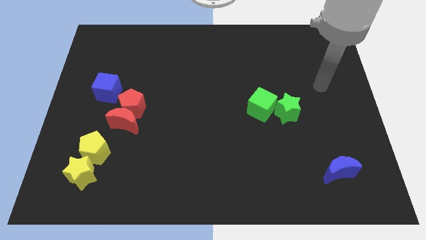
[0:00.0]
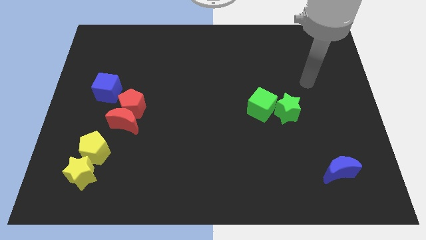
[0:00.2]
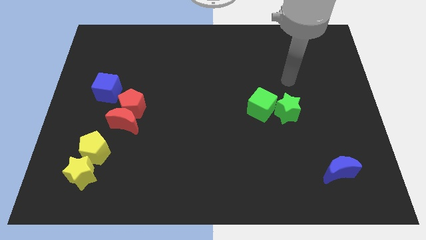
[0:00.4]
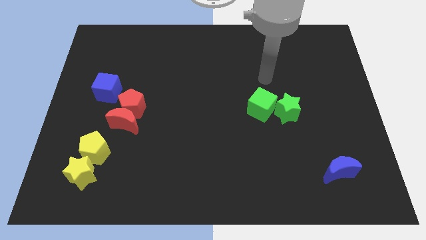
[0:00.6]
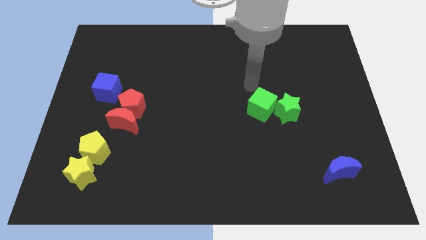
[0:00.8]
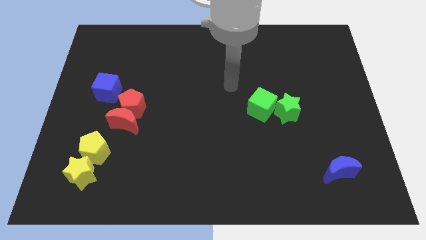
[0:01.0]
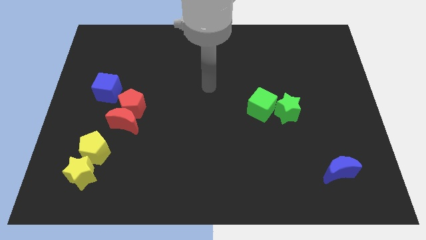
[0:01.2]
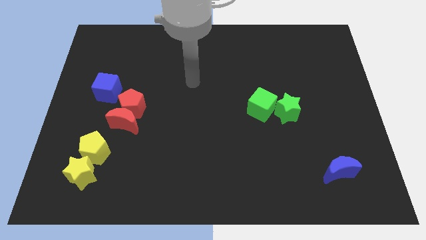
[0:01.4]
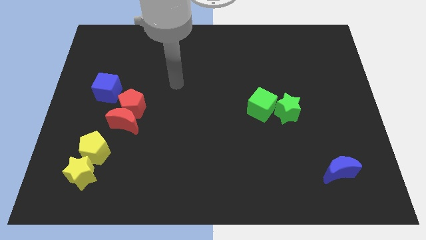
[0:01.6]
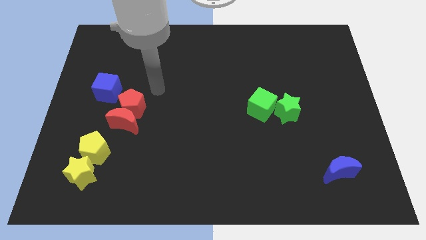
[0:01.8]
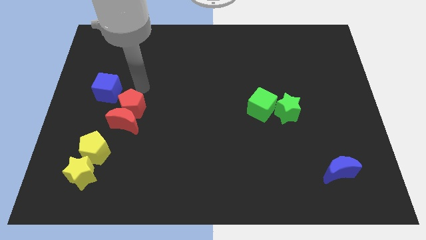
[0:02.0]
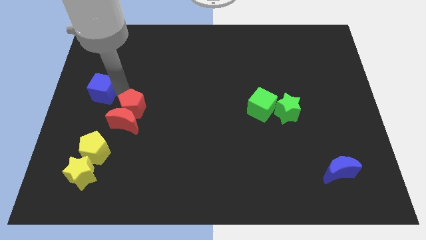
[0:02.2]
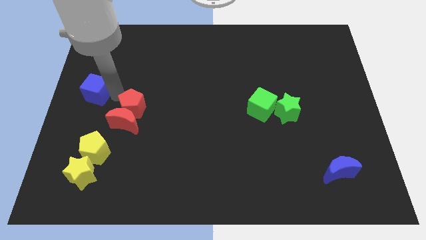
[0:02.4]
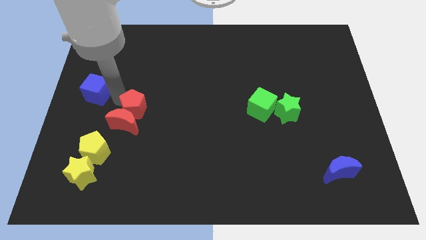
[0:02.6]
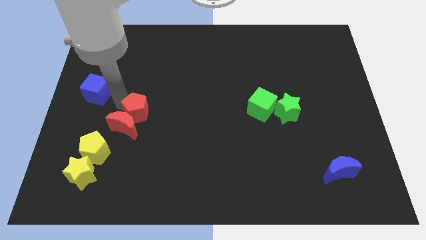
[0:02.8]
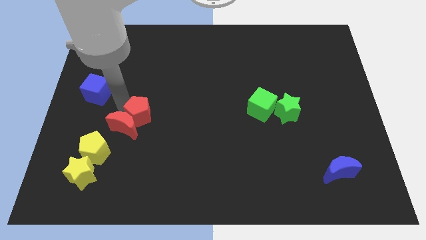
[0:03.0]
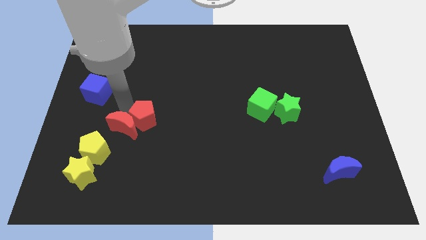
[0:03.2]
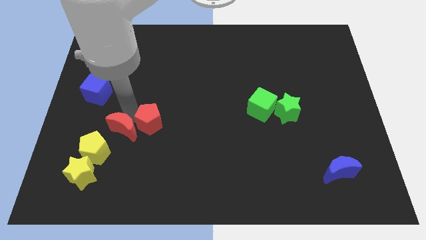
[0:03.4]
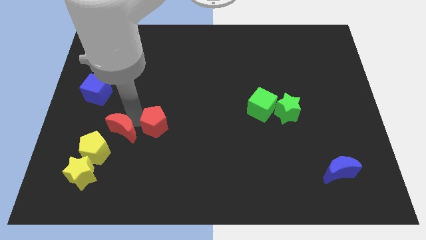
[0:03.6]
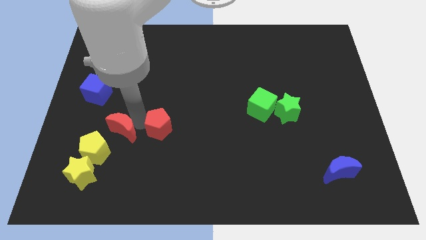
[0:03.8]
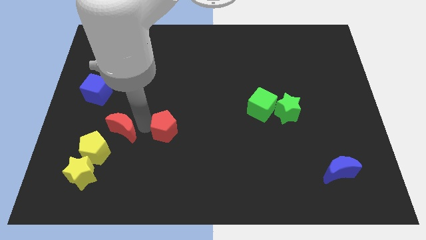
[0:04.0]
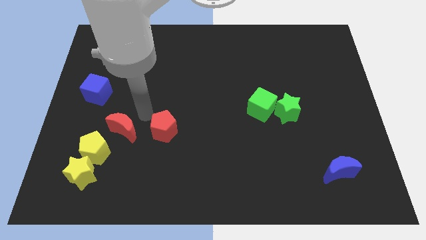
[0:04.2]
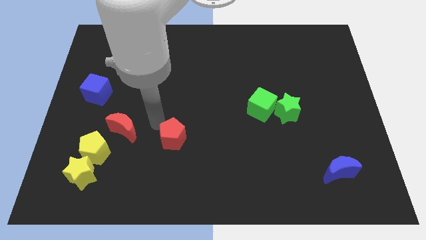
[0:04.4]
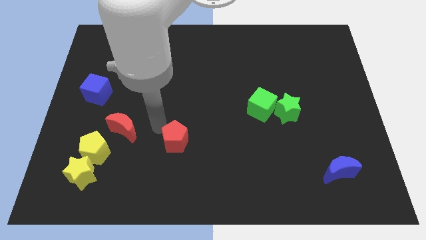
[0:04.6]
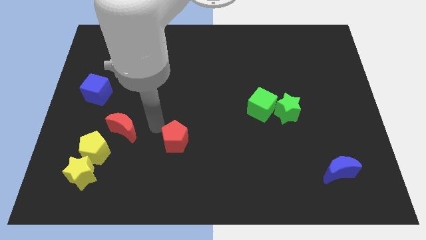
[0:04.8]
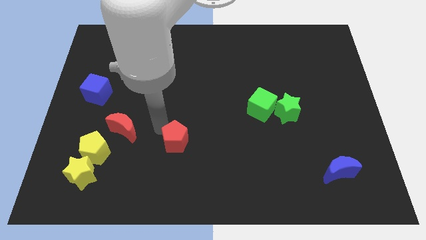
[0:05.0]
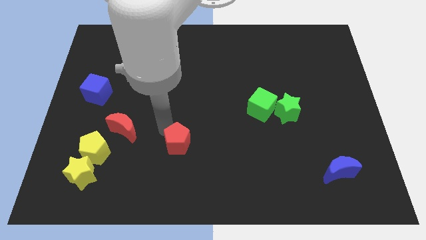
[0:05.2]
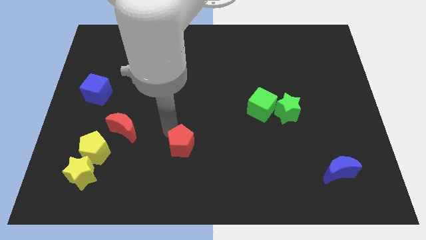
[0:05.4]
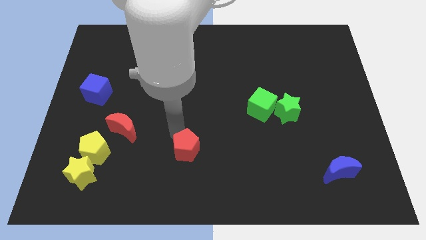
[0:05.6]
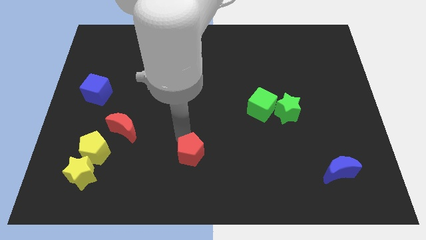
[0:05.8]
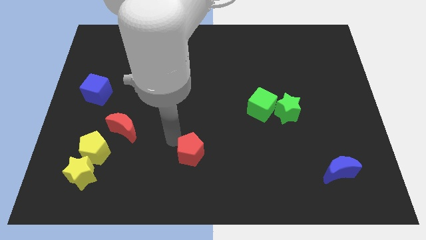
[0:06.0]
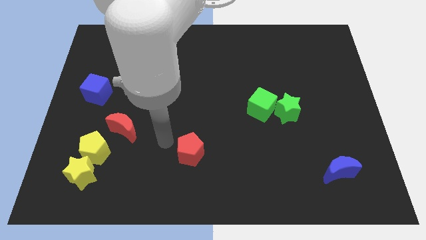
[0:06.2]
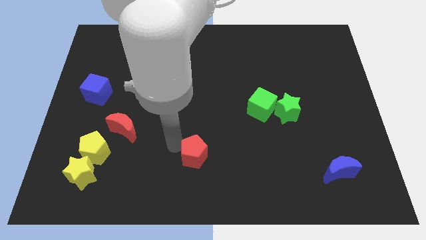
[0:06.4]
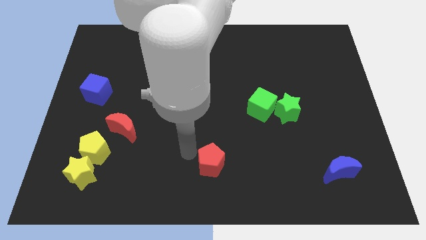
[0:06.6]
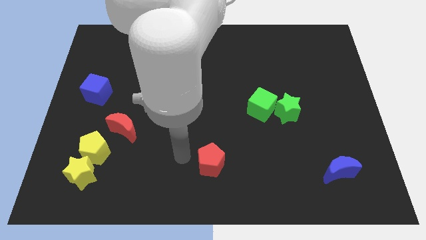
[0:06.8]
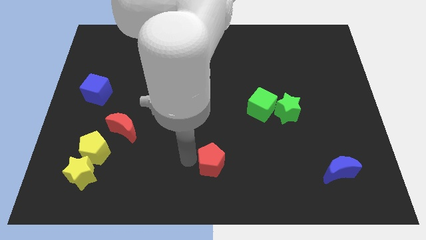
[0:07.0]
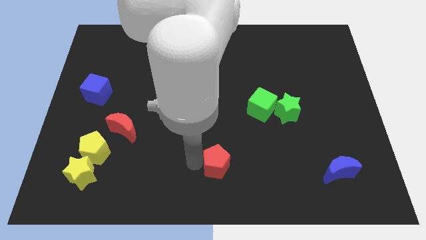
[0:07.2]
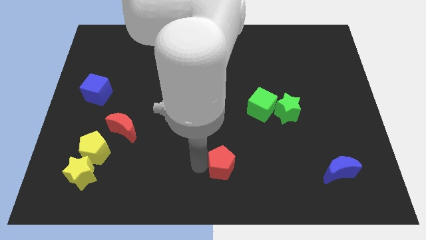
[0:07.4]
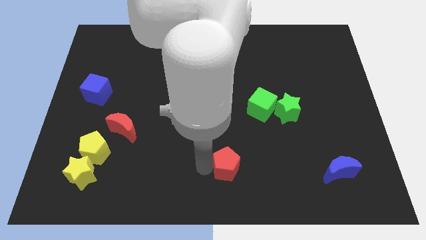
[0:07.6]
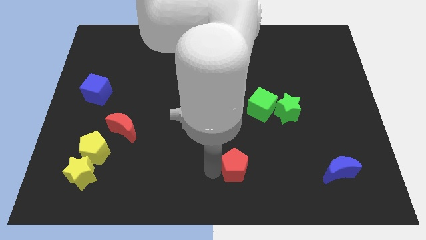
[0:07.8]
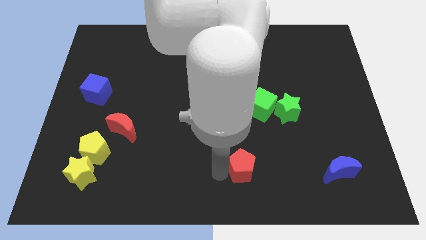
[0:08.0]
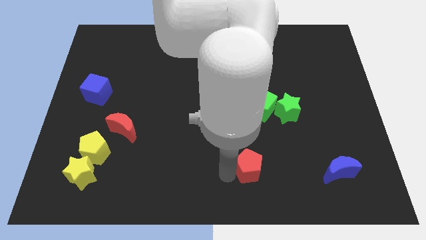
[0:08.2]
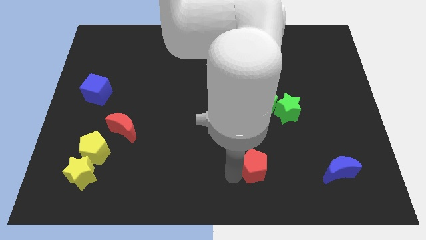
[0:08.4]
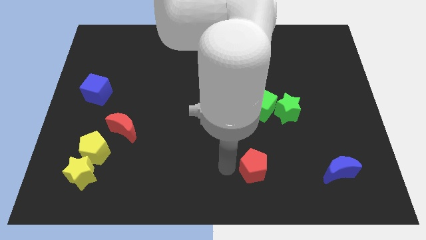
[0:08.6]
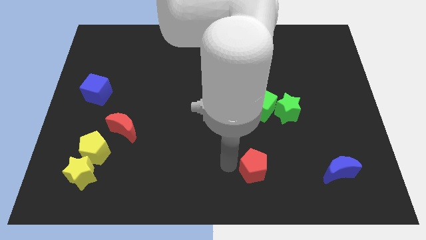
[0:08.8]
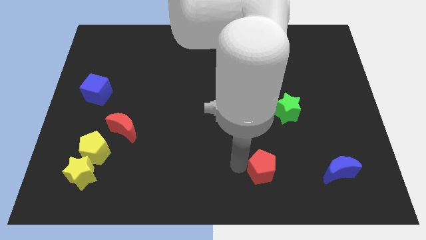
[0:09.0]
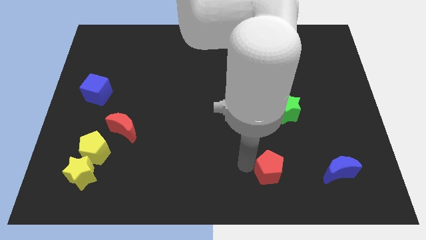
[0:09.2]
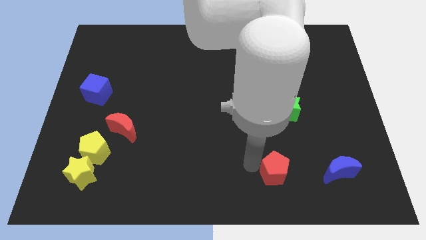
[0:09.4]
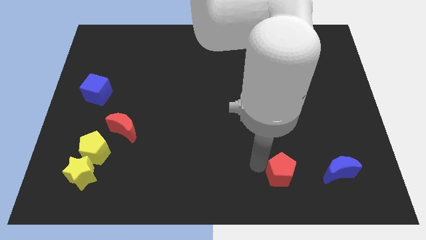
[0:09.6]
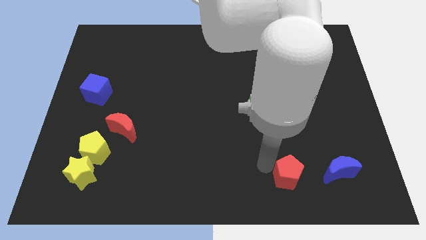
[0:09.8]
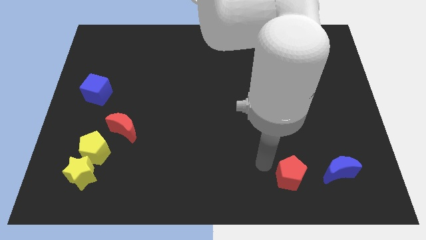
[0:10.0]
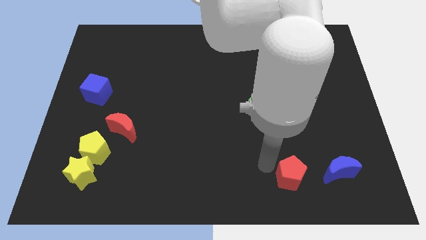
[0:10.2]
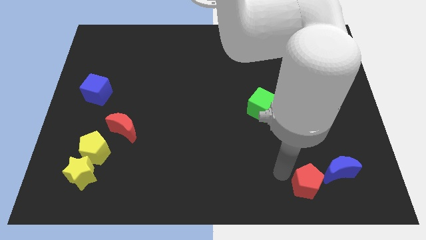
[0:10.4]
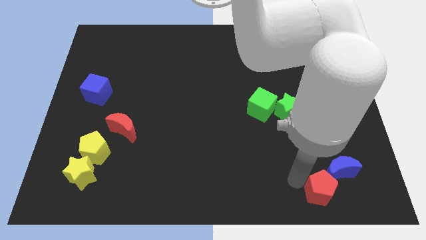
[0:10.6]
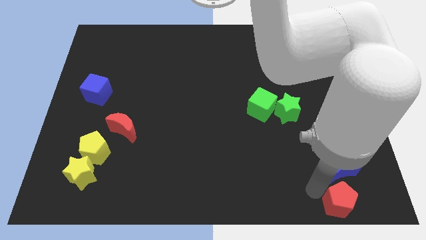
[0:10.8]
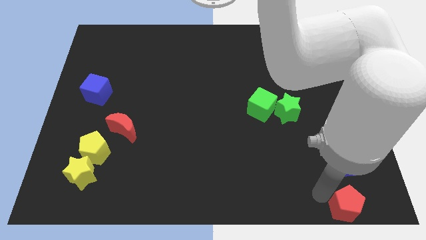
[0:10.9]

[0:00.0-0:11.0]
put the red pentagon to the bottom right corner

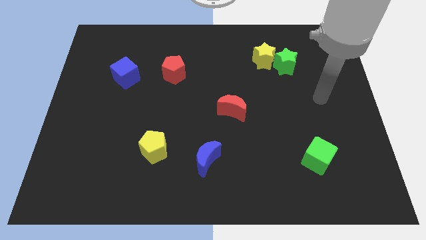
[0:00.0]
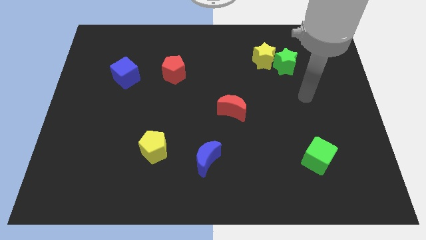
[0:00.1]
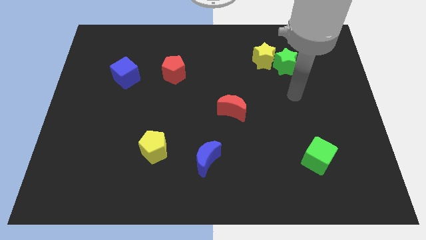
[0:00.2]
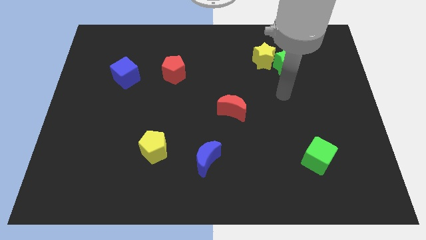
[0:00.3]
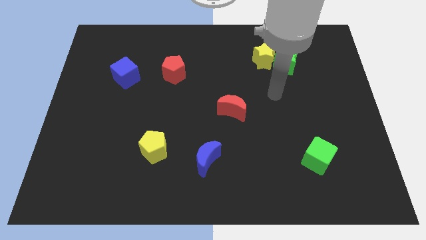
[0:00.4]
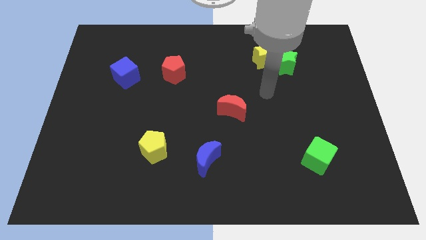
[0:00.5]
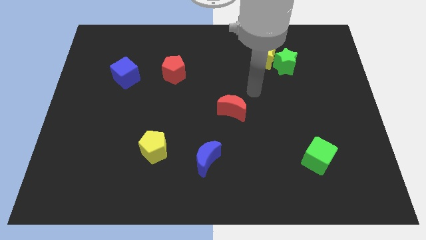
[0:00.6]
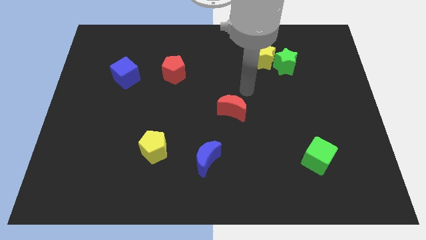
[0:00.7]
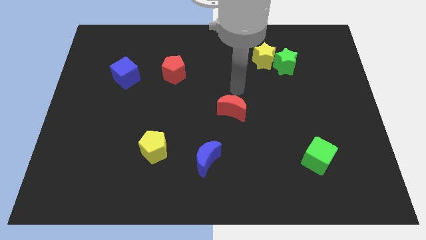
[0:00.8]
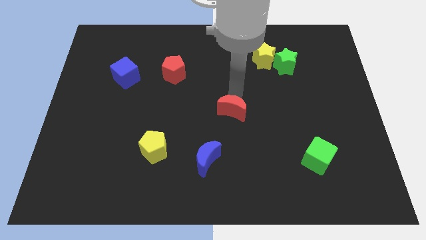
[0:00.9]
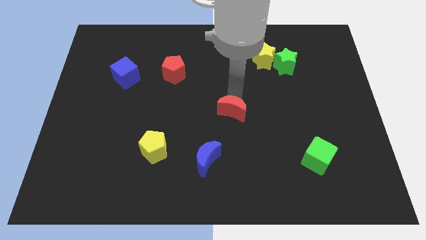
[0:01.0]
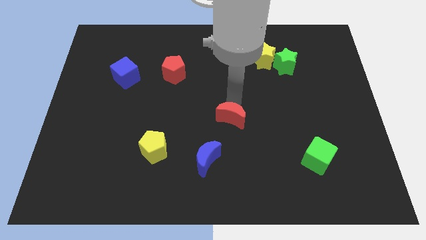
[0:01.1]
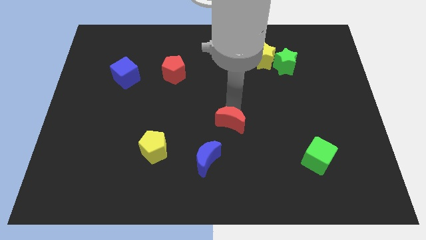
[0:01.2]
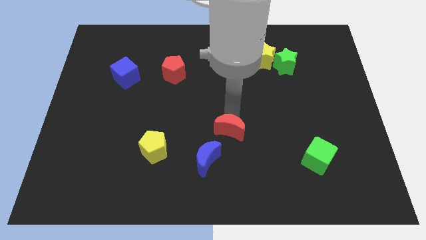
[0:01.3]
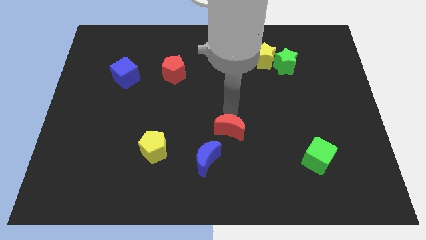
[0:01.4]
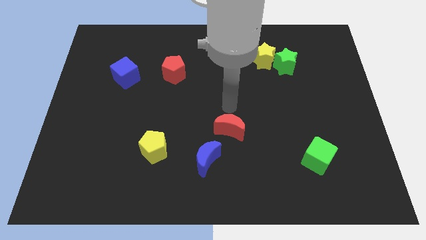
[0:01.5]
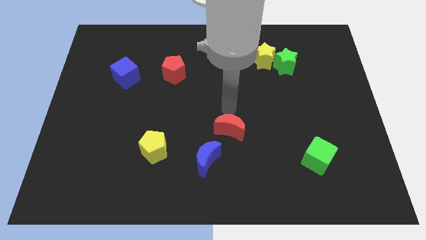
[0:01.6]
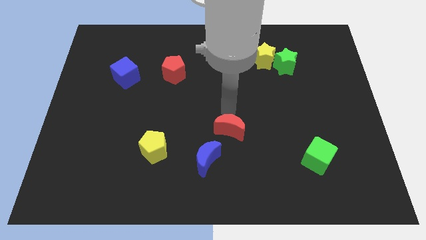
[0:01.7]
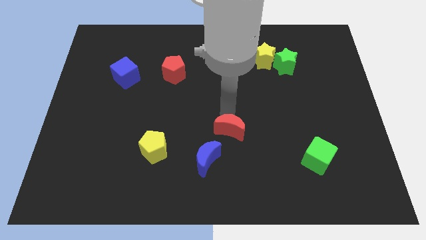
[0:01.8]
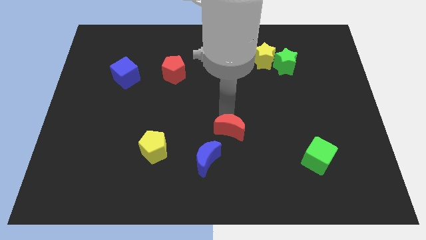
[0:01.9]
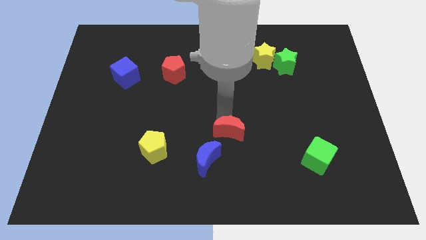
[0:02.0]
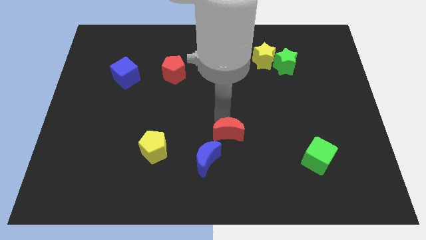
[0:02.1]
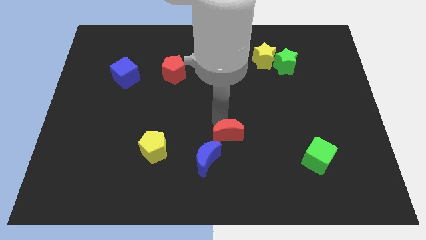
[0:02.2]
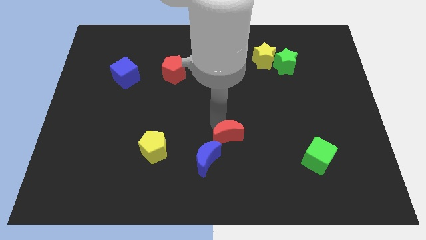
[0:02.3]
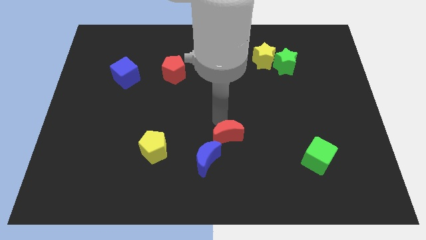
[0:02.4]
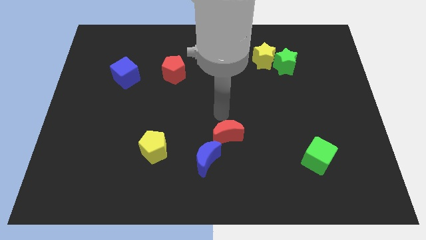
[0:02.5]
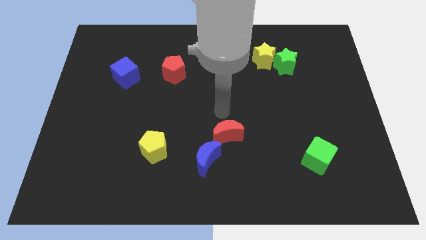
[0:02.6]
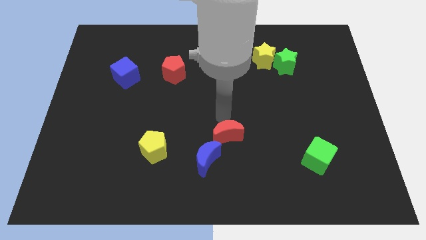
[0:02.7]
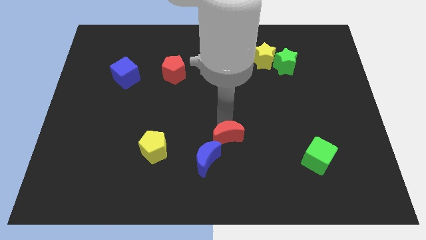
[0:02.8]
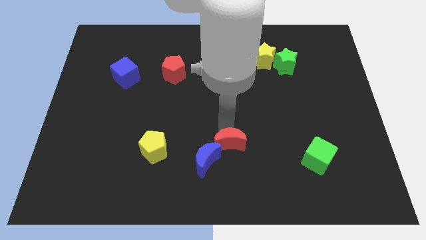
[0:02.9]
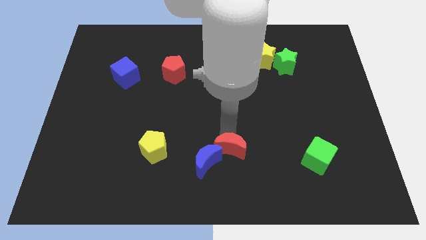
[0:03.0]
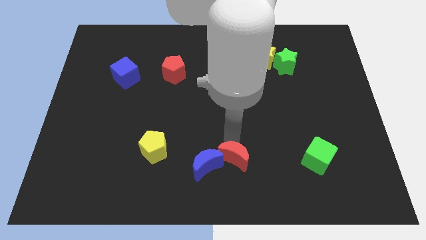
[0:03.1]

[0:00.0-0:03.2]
put the red moon to the bottom side
